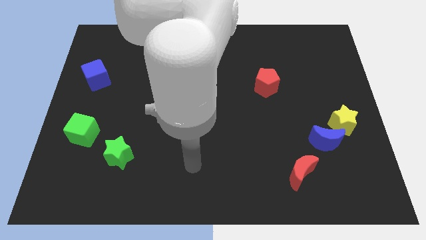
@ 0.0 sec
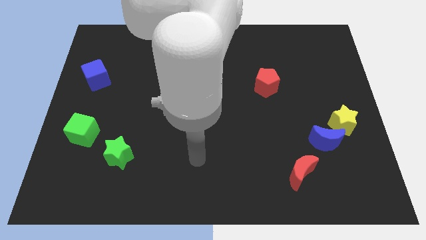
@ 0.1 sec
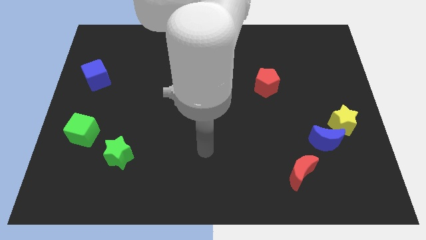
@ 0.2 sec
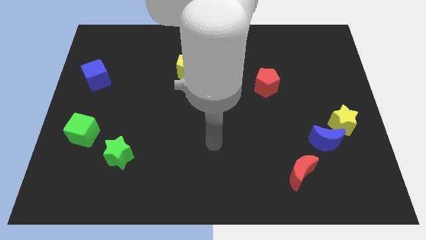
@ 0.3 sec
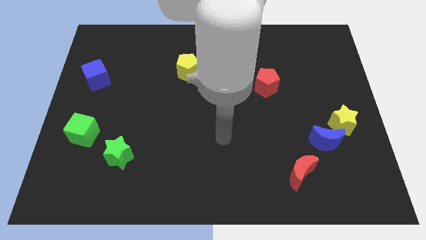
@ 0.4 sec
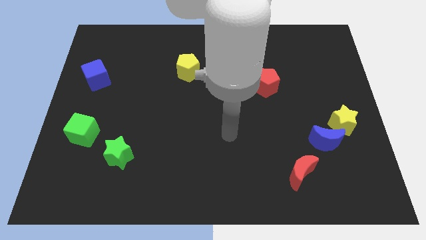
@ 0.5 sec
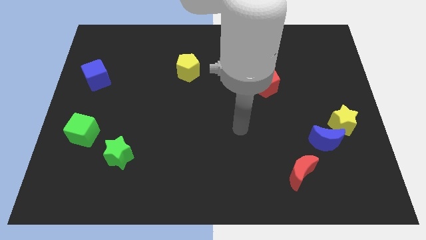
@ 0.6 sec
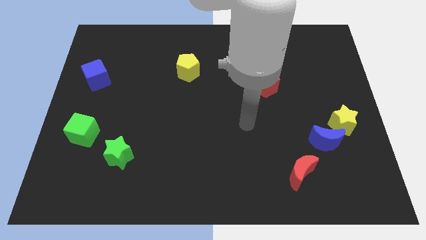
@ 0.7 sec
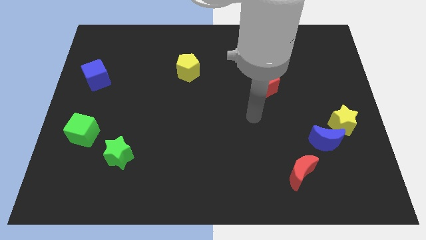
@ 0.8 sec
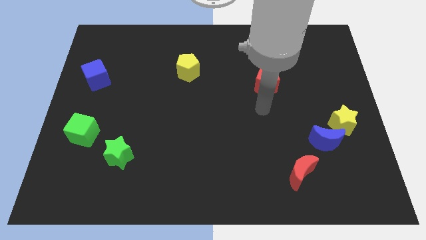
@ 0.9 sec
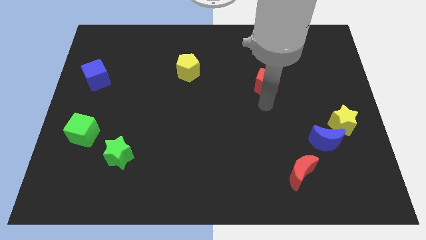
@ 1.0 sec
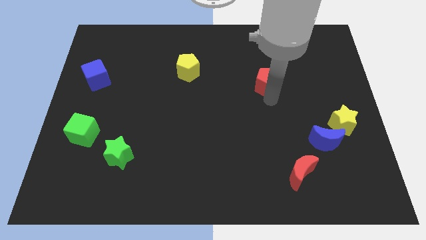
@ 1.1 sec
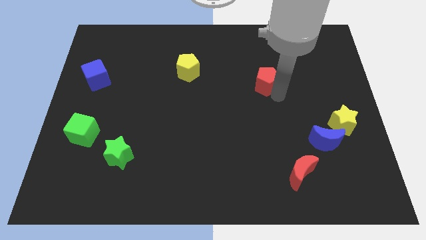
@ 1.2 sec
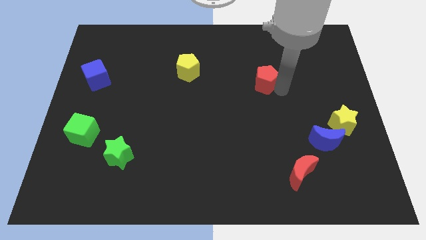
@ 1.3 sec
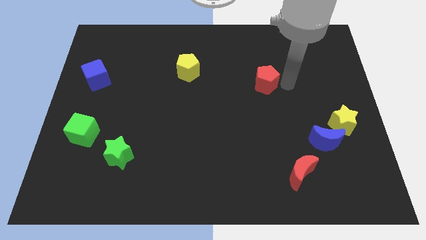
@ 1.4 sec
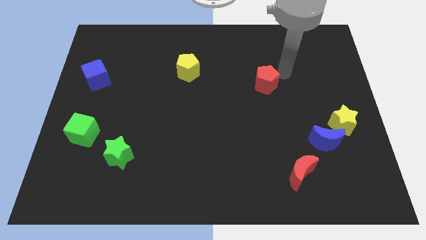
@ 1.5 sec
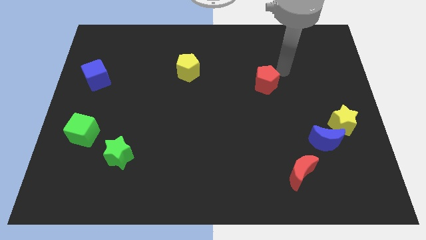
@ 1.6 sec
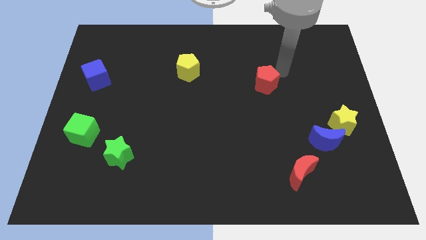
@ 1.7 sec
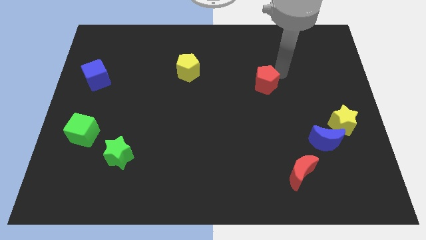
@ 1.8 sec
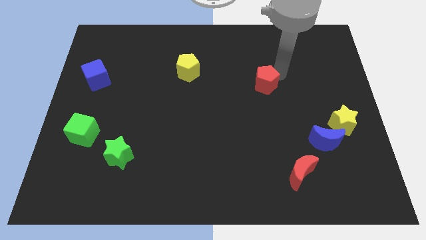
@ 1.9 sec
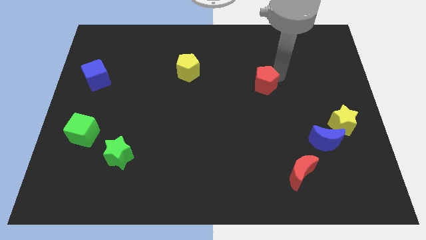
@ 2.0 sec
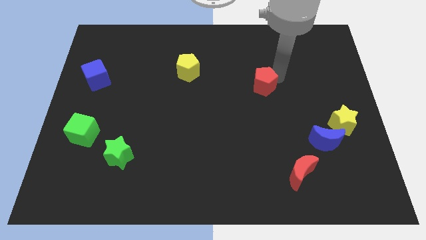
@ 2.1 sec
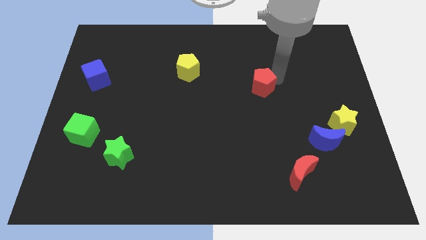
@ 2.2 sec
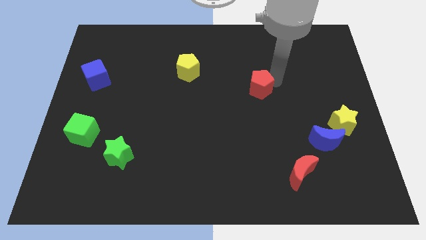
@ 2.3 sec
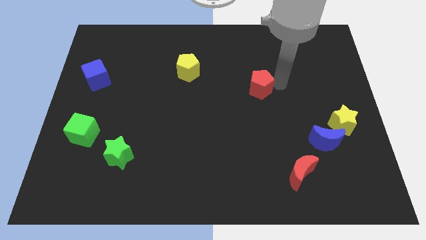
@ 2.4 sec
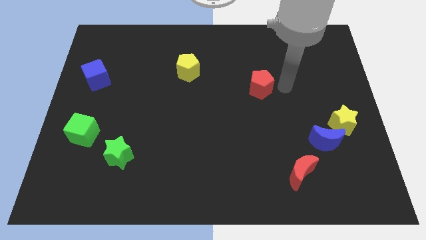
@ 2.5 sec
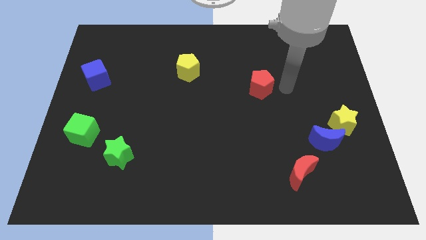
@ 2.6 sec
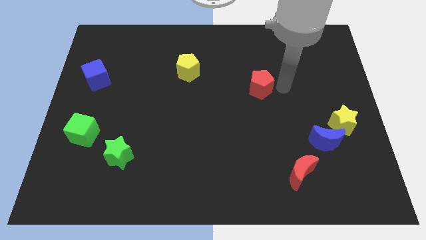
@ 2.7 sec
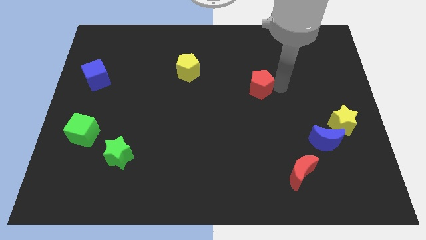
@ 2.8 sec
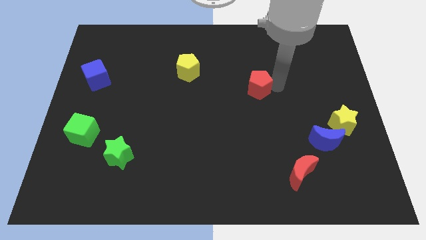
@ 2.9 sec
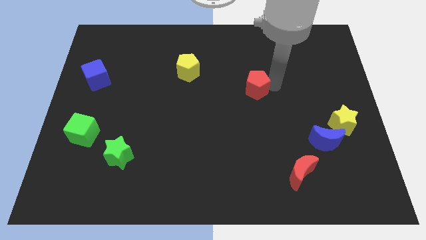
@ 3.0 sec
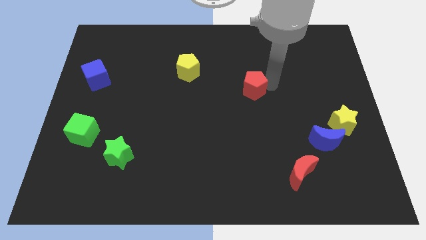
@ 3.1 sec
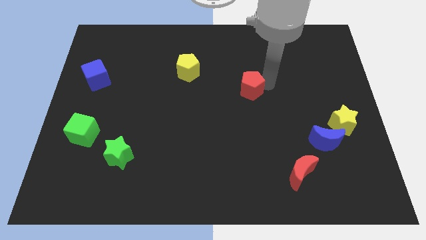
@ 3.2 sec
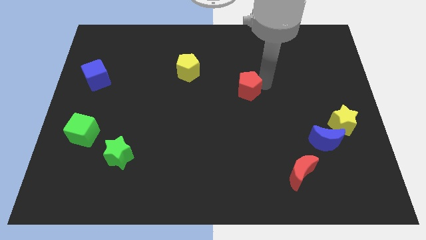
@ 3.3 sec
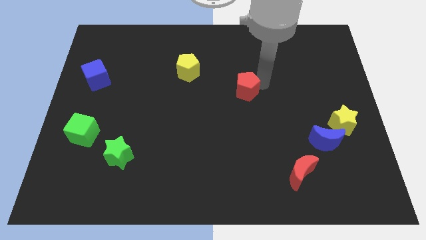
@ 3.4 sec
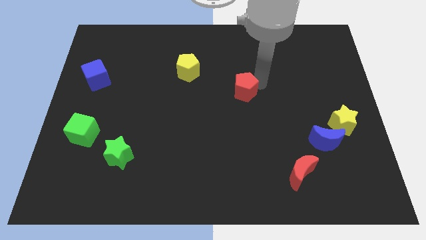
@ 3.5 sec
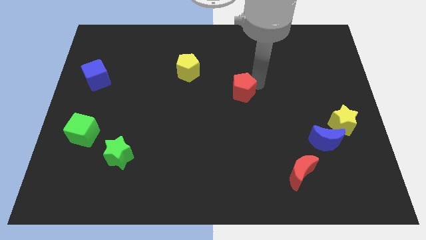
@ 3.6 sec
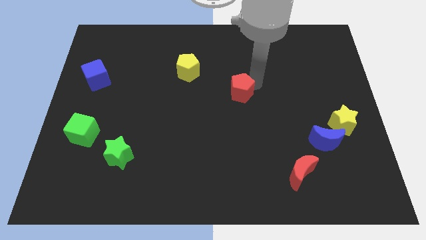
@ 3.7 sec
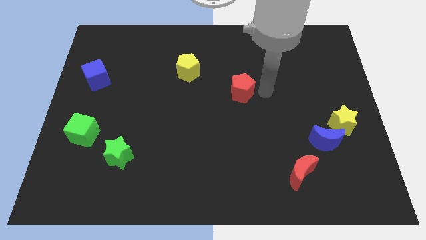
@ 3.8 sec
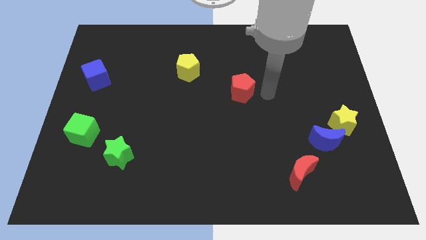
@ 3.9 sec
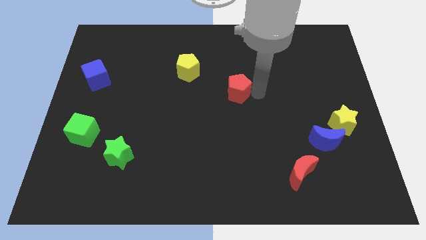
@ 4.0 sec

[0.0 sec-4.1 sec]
slightly move the red pentagon left

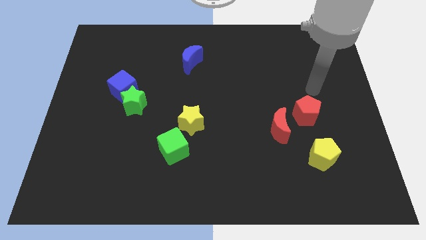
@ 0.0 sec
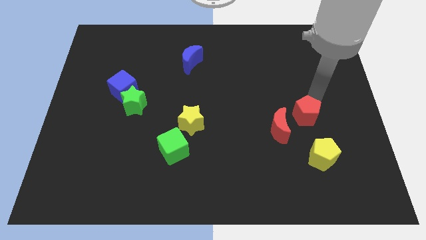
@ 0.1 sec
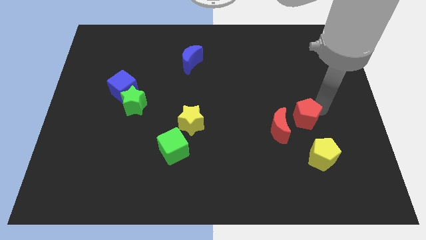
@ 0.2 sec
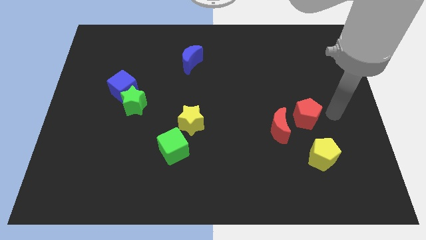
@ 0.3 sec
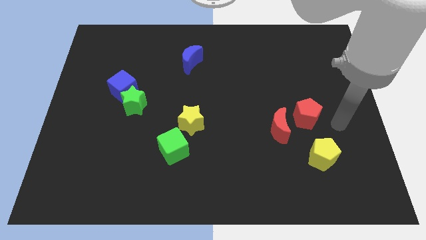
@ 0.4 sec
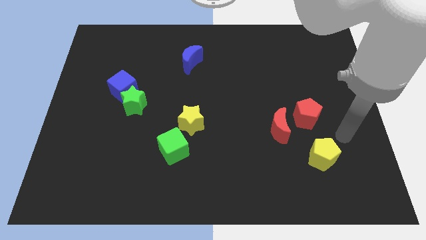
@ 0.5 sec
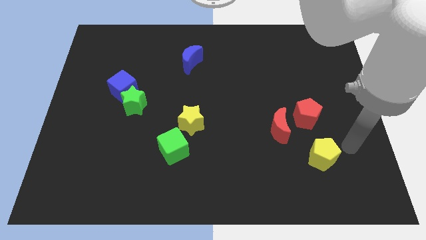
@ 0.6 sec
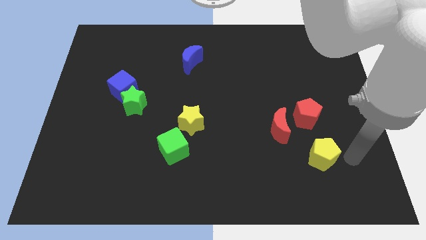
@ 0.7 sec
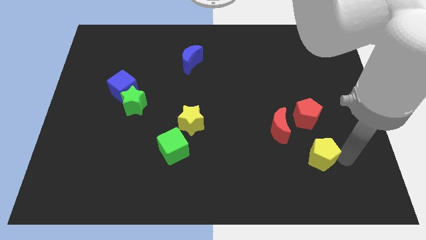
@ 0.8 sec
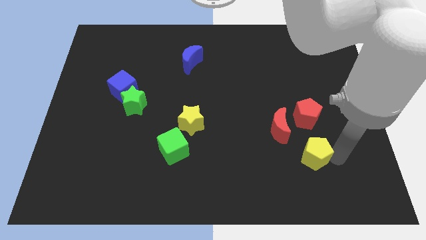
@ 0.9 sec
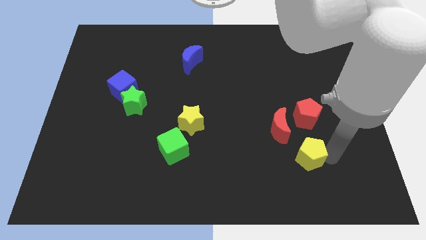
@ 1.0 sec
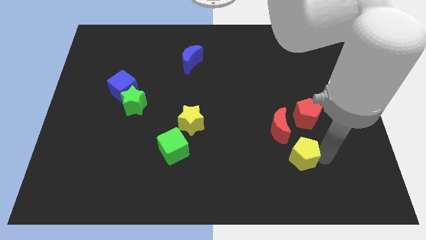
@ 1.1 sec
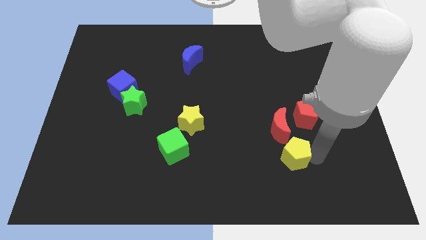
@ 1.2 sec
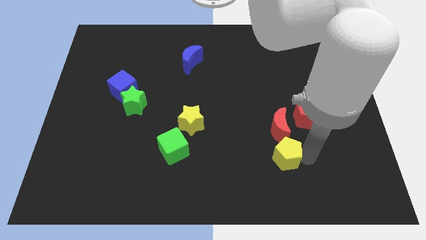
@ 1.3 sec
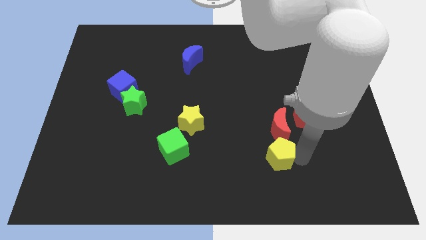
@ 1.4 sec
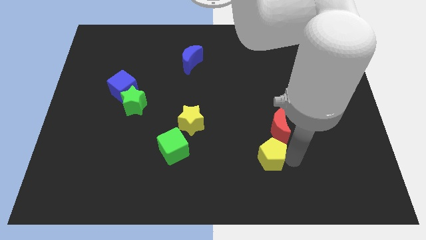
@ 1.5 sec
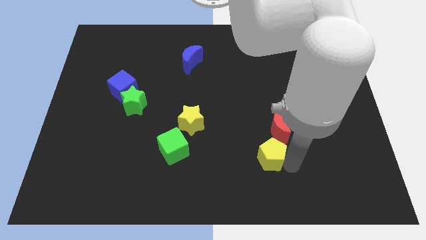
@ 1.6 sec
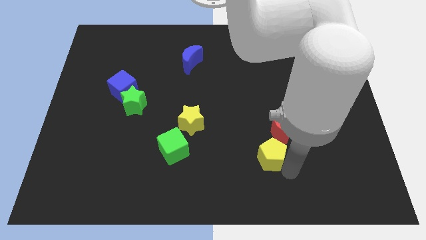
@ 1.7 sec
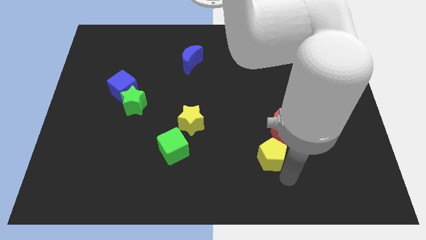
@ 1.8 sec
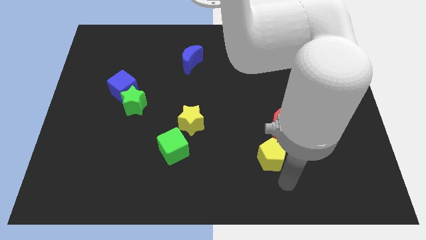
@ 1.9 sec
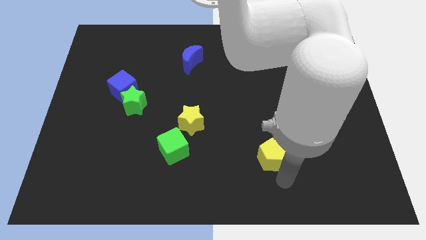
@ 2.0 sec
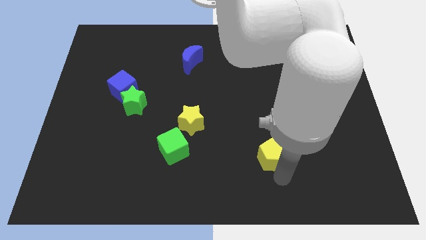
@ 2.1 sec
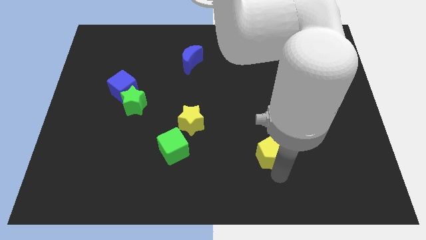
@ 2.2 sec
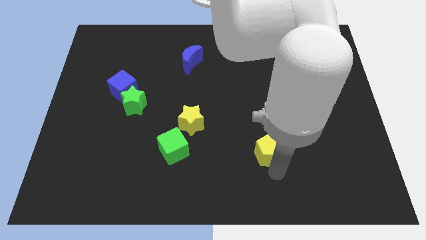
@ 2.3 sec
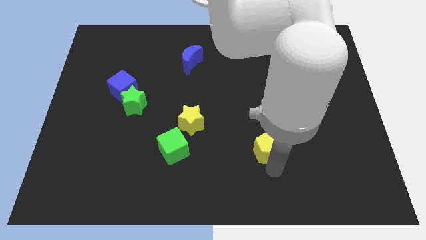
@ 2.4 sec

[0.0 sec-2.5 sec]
slightly move the yellow pentagon up and left diagonally

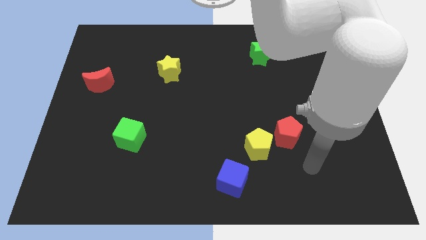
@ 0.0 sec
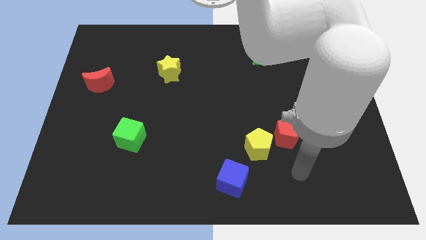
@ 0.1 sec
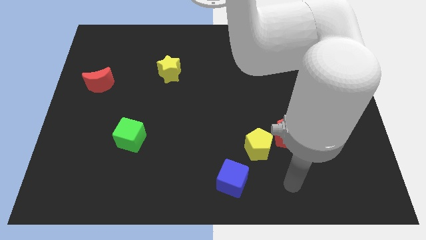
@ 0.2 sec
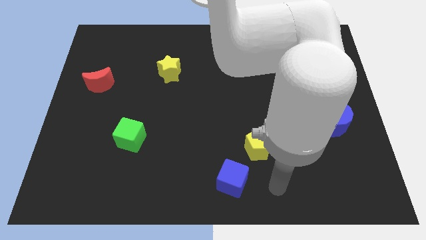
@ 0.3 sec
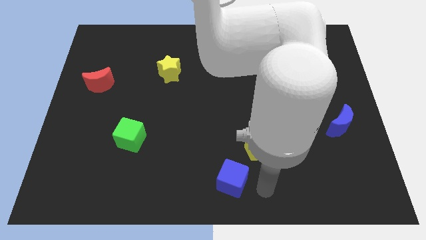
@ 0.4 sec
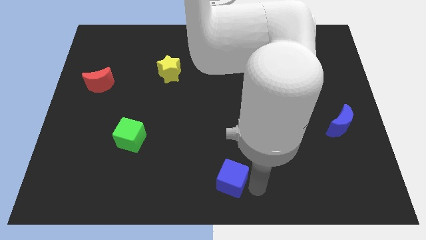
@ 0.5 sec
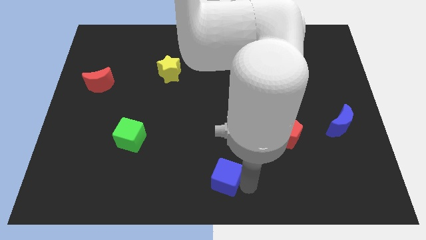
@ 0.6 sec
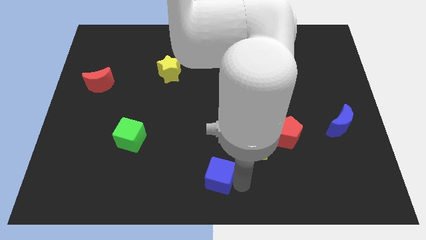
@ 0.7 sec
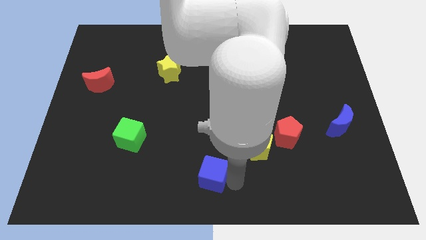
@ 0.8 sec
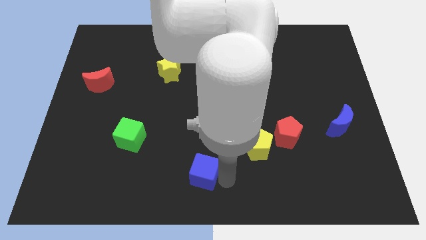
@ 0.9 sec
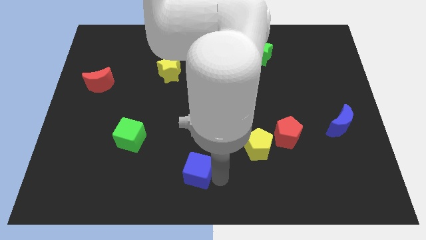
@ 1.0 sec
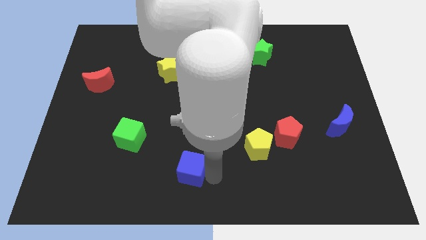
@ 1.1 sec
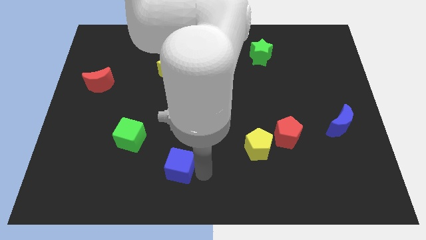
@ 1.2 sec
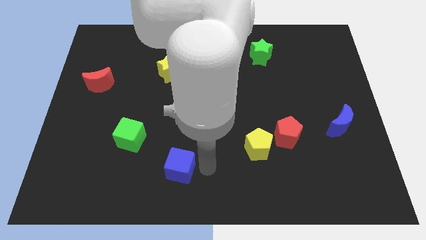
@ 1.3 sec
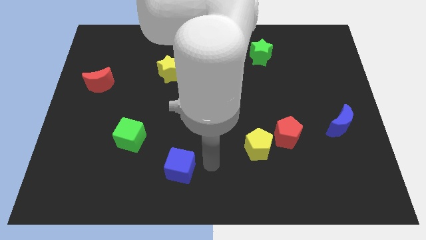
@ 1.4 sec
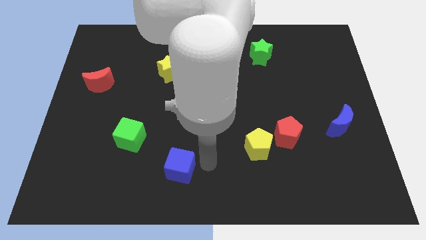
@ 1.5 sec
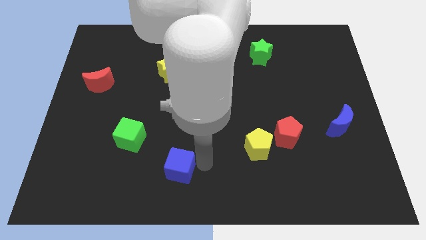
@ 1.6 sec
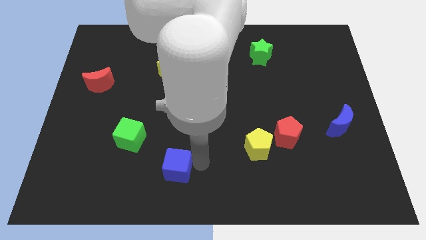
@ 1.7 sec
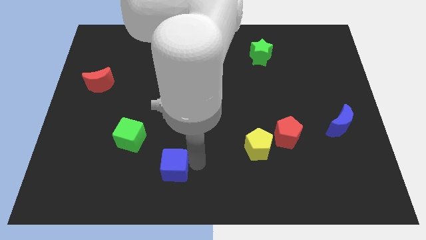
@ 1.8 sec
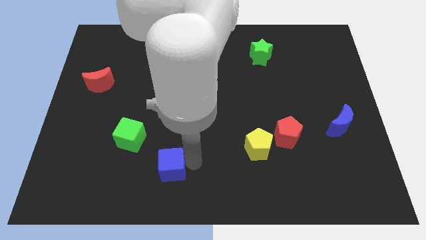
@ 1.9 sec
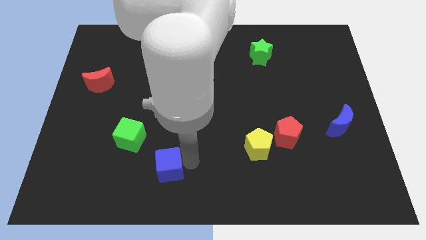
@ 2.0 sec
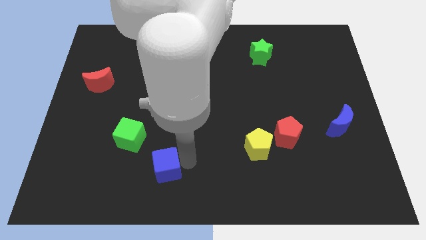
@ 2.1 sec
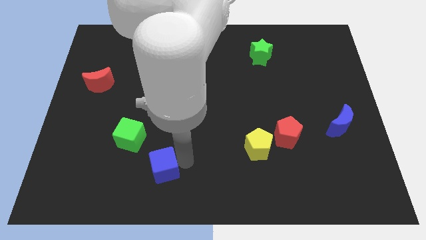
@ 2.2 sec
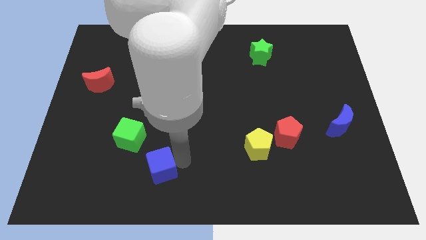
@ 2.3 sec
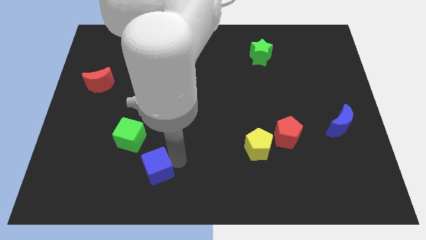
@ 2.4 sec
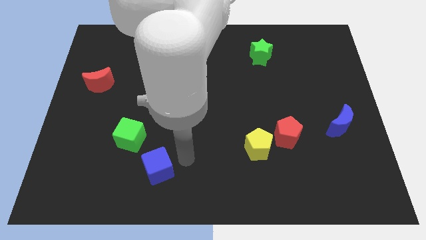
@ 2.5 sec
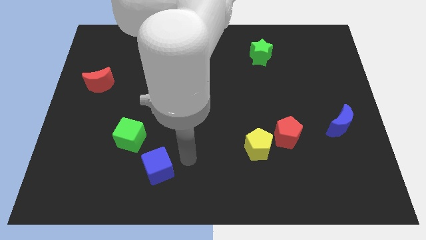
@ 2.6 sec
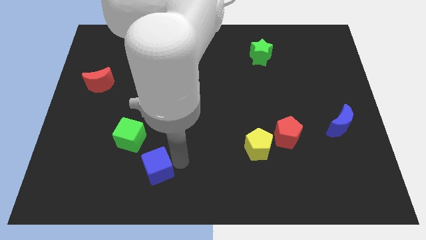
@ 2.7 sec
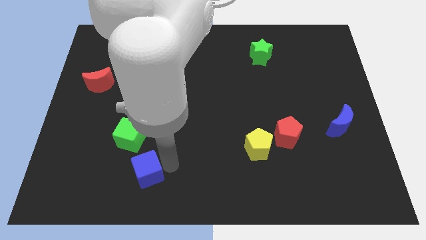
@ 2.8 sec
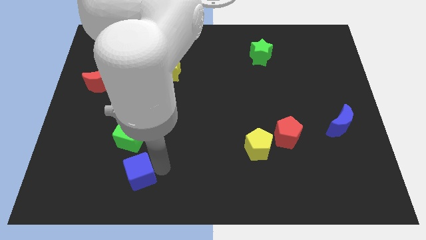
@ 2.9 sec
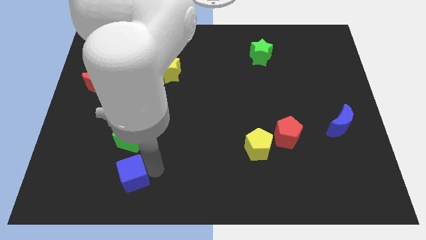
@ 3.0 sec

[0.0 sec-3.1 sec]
slide the blue cube left
